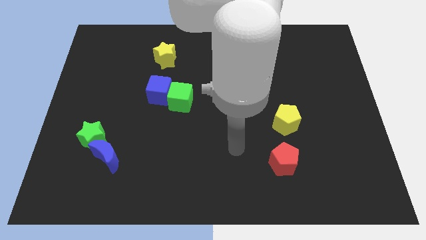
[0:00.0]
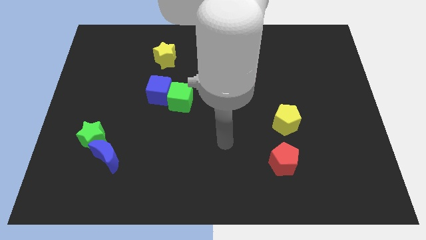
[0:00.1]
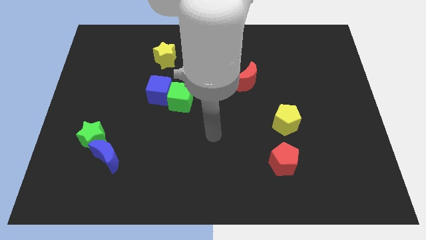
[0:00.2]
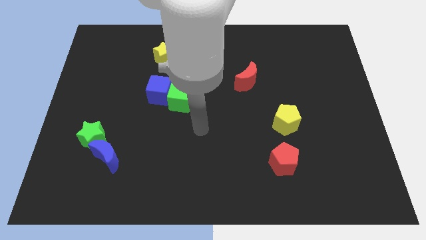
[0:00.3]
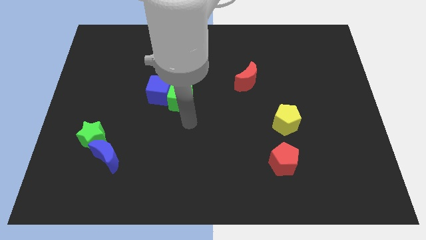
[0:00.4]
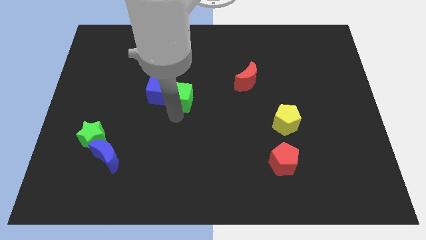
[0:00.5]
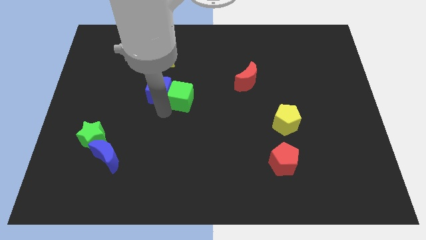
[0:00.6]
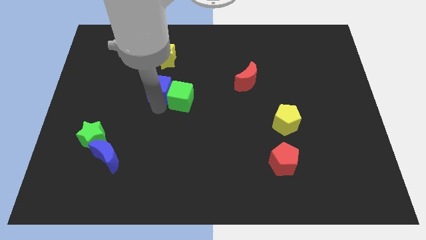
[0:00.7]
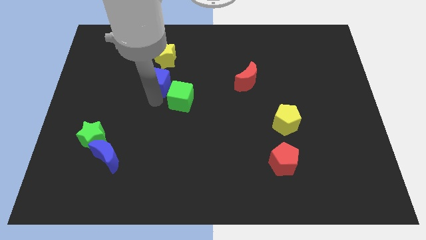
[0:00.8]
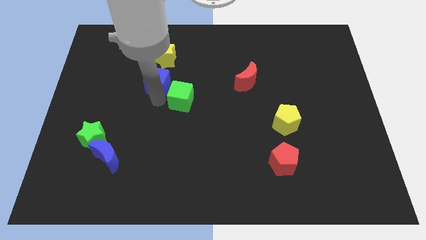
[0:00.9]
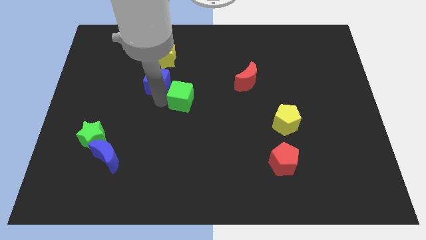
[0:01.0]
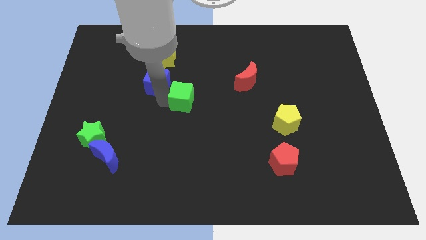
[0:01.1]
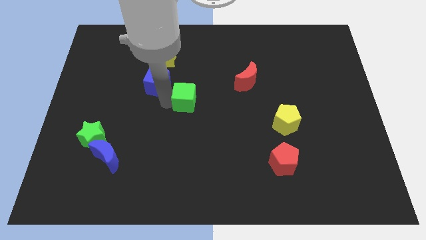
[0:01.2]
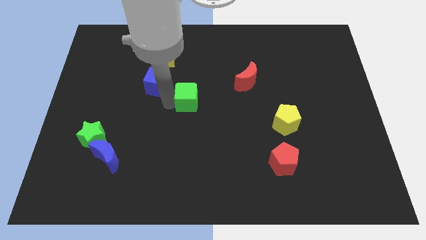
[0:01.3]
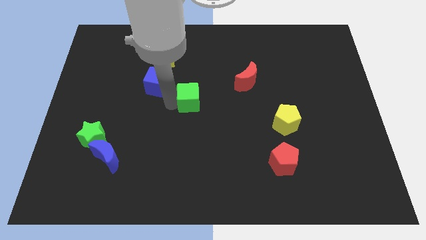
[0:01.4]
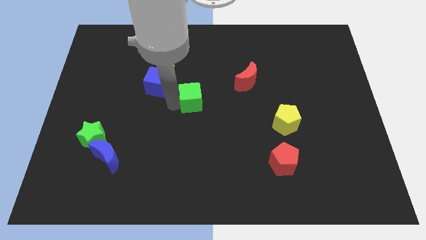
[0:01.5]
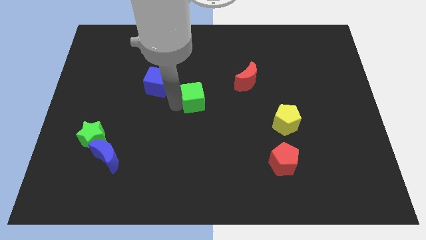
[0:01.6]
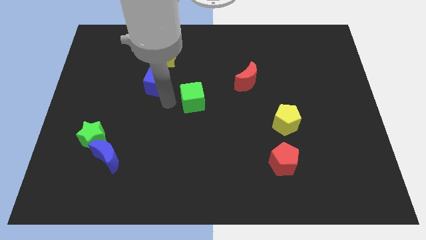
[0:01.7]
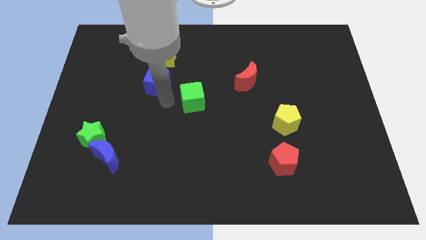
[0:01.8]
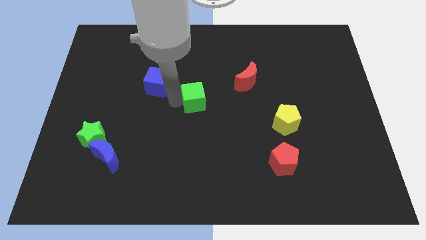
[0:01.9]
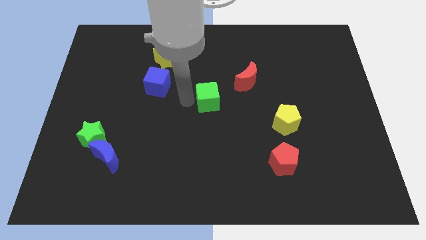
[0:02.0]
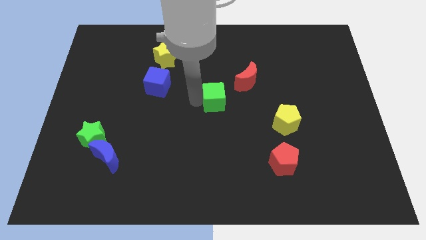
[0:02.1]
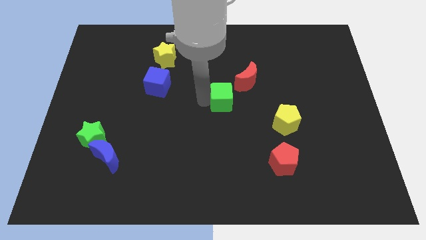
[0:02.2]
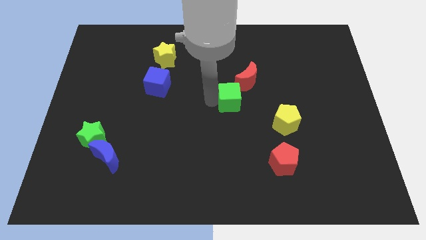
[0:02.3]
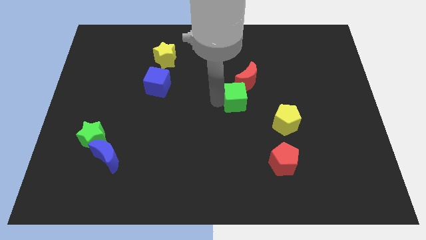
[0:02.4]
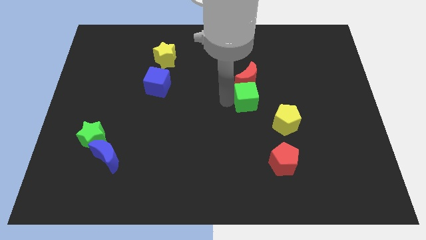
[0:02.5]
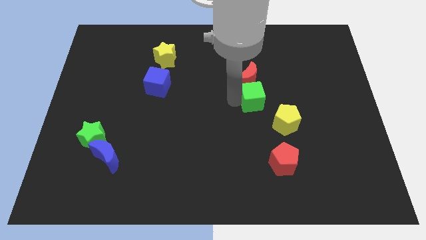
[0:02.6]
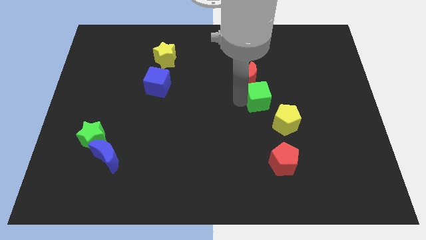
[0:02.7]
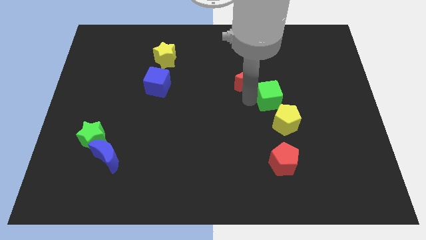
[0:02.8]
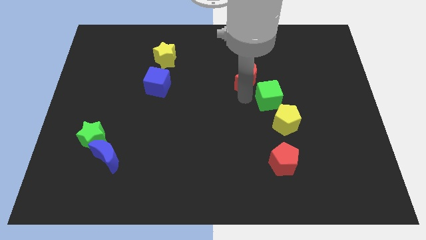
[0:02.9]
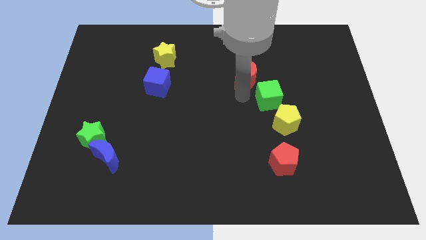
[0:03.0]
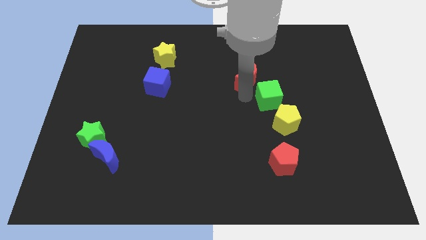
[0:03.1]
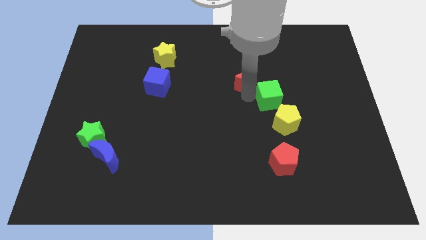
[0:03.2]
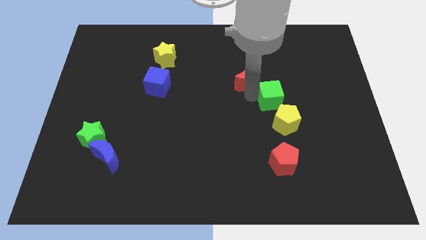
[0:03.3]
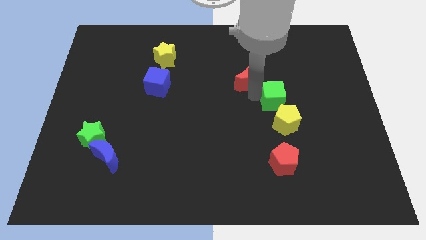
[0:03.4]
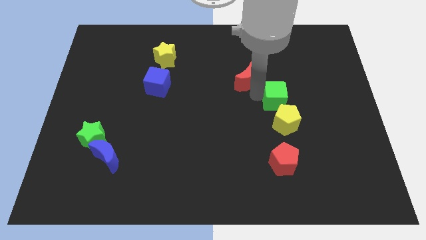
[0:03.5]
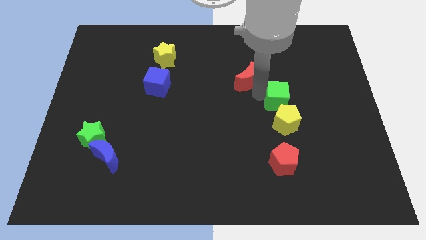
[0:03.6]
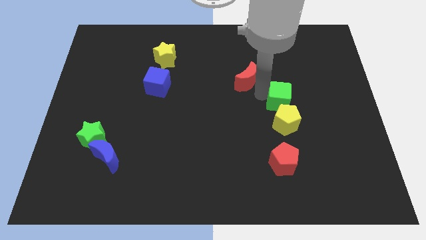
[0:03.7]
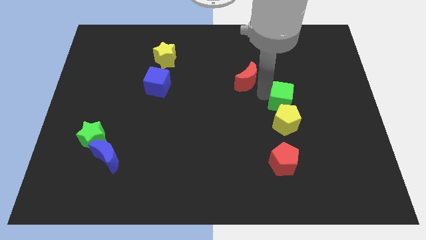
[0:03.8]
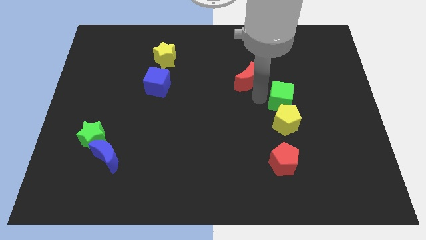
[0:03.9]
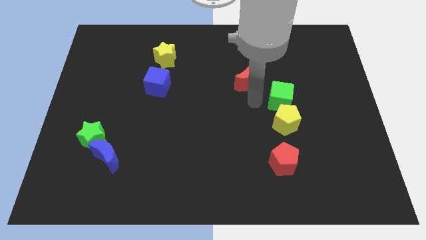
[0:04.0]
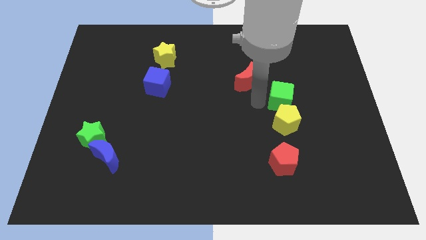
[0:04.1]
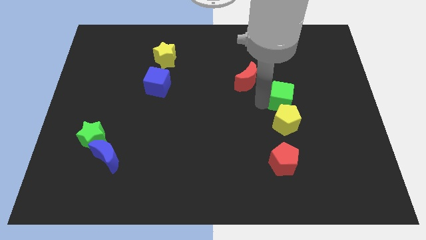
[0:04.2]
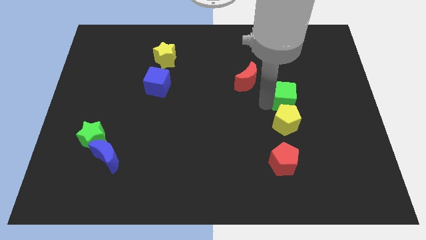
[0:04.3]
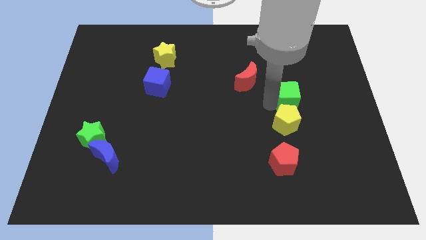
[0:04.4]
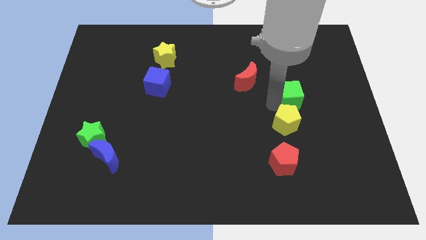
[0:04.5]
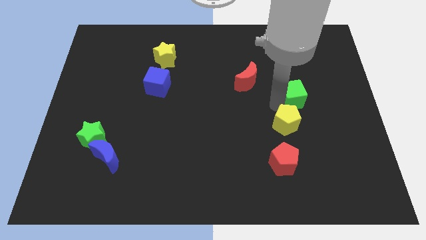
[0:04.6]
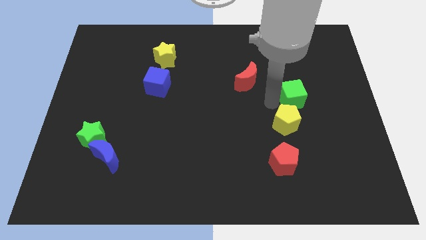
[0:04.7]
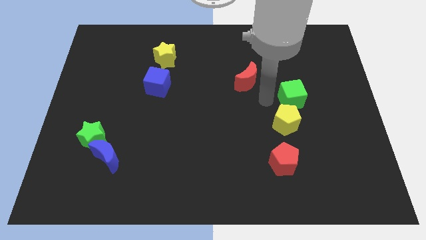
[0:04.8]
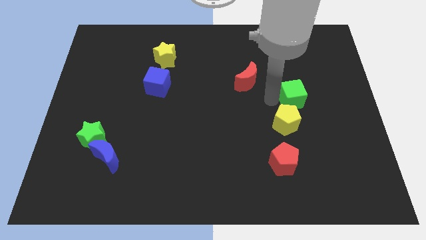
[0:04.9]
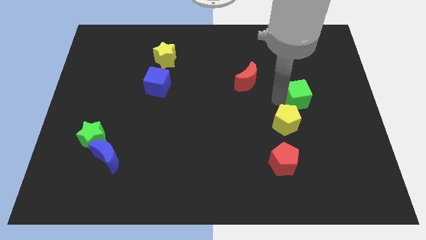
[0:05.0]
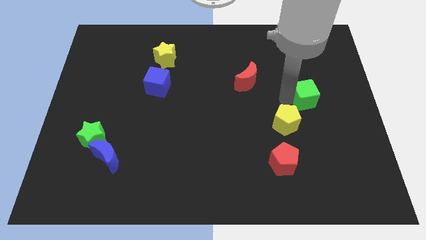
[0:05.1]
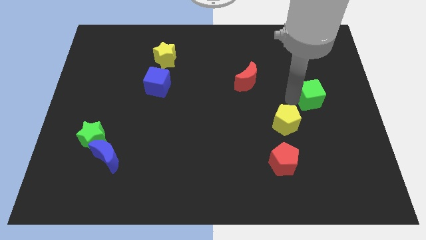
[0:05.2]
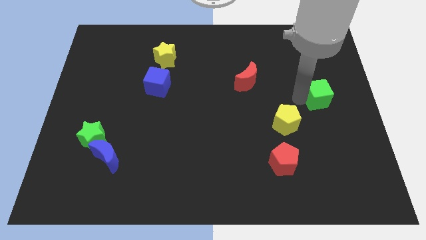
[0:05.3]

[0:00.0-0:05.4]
slide the green cube to the center right

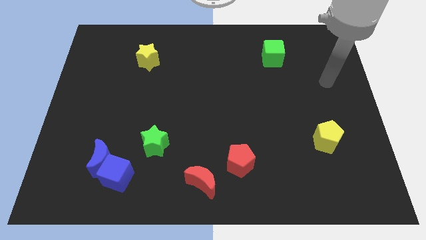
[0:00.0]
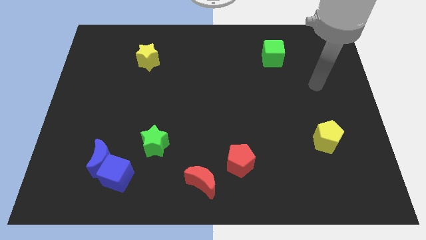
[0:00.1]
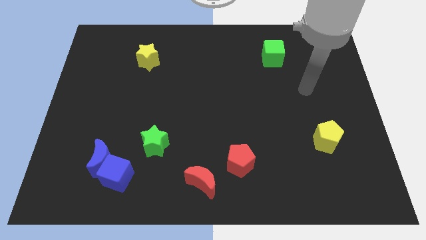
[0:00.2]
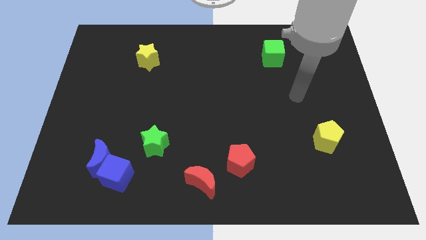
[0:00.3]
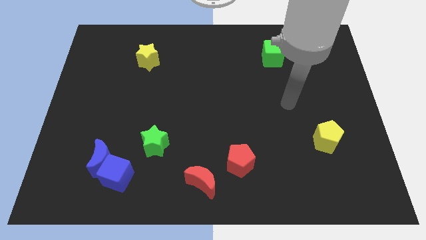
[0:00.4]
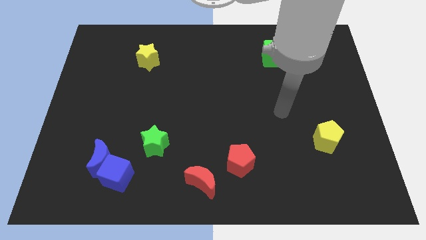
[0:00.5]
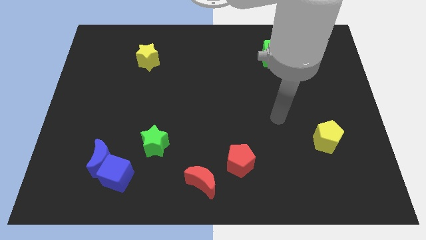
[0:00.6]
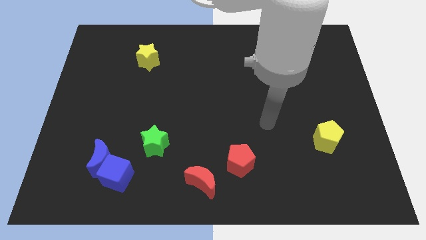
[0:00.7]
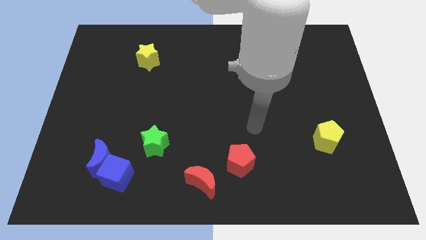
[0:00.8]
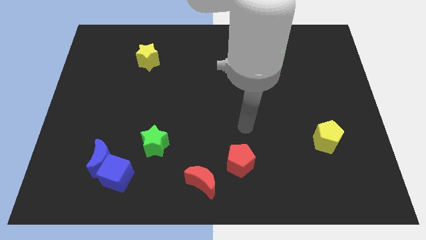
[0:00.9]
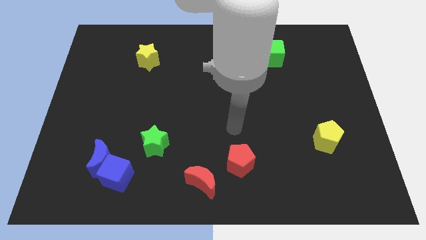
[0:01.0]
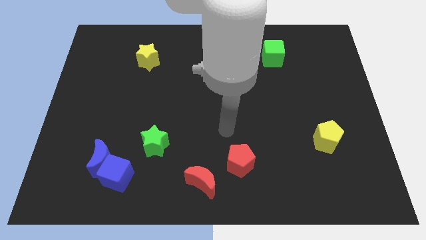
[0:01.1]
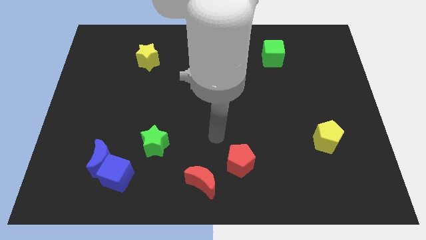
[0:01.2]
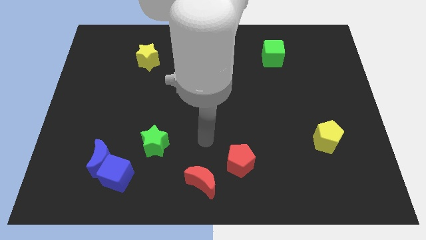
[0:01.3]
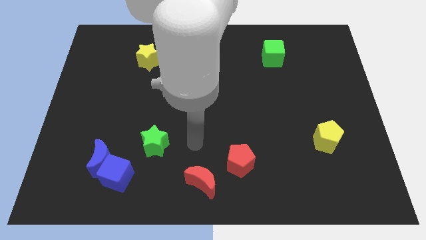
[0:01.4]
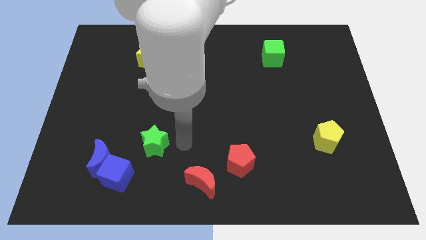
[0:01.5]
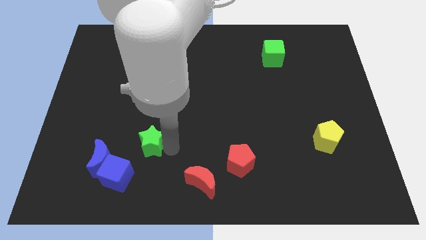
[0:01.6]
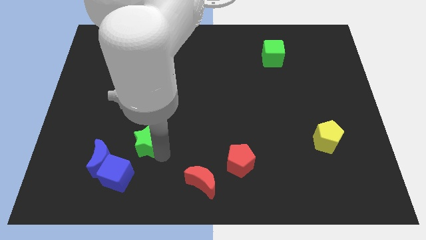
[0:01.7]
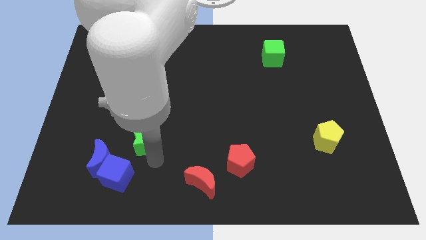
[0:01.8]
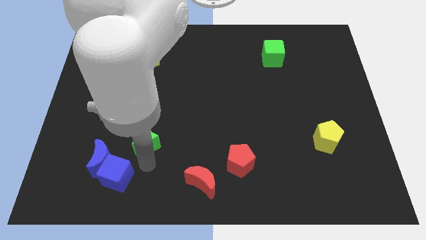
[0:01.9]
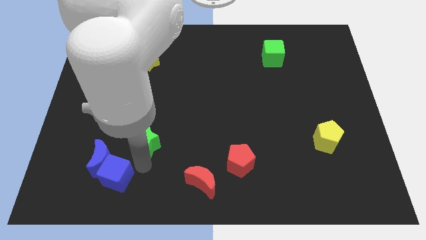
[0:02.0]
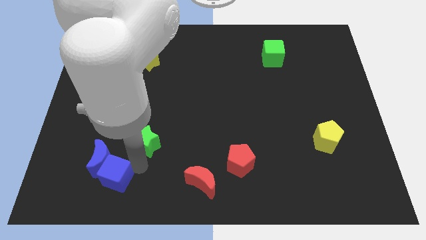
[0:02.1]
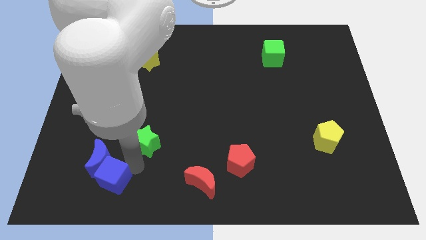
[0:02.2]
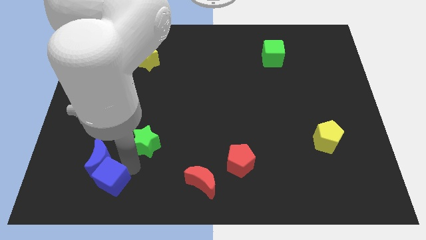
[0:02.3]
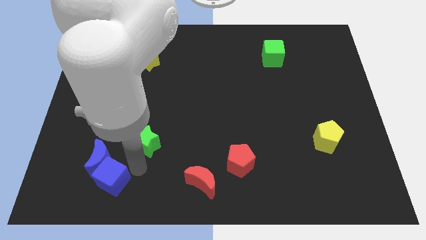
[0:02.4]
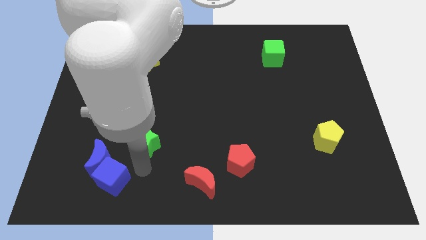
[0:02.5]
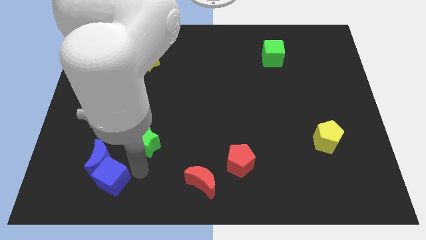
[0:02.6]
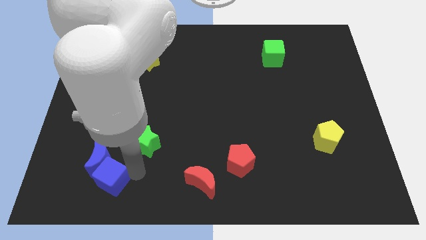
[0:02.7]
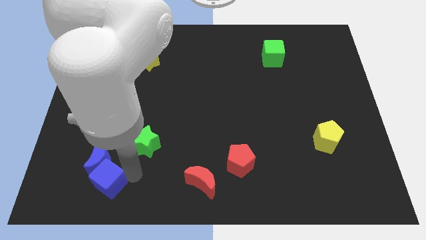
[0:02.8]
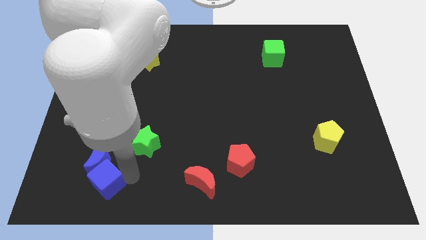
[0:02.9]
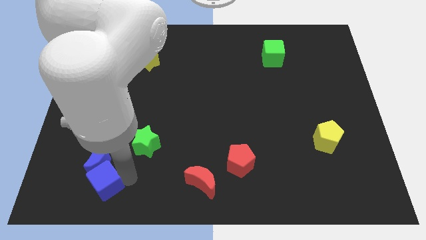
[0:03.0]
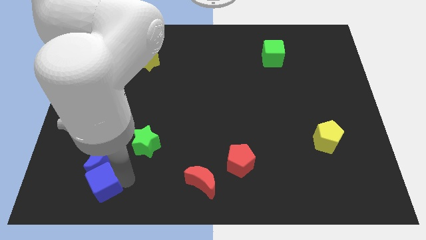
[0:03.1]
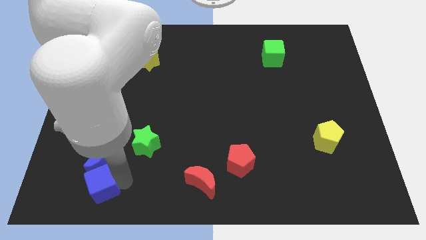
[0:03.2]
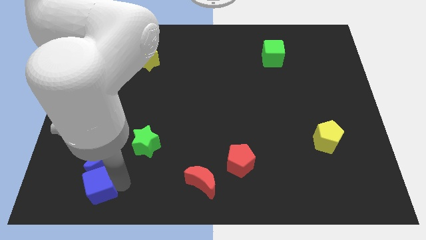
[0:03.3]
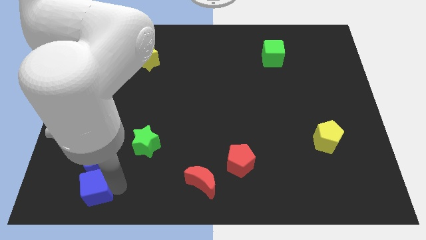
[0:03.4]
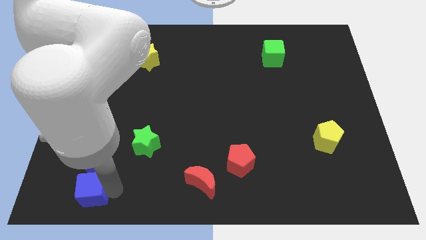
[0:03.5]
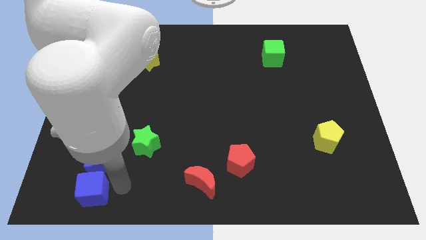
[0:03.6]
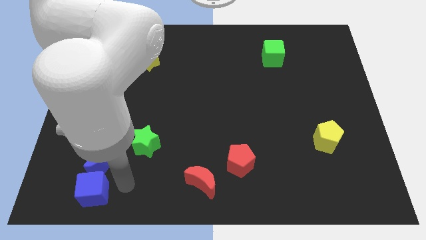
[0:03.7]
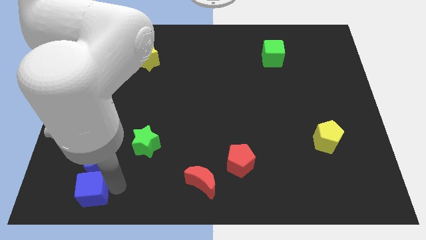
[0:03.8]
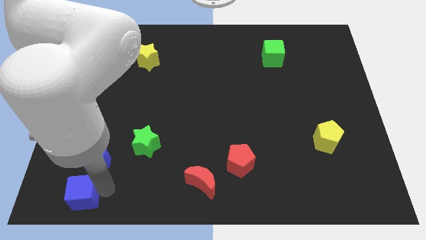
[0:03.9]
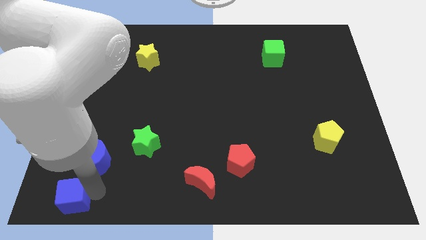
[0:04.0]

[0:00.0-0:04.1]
push the blue cube to the lower left corner
